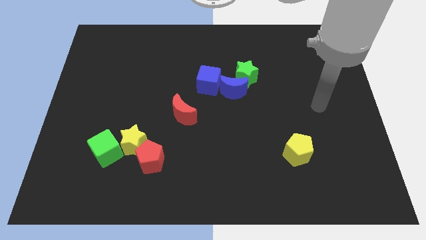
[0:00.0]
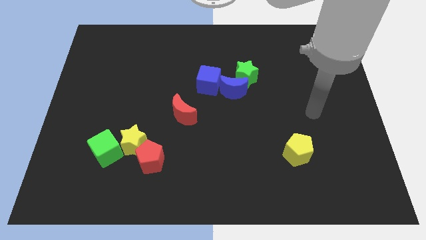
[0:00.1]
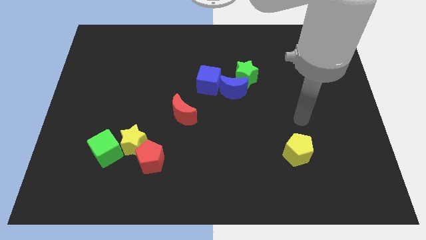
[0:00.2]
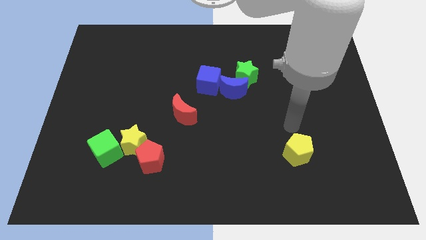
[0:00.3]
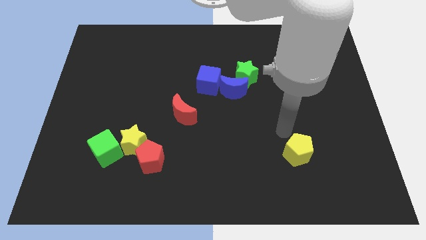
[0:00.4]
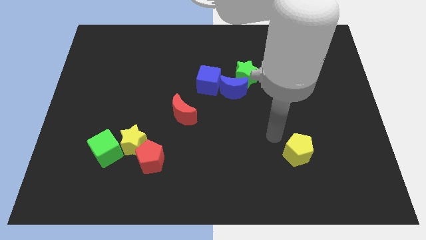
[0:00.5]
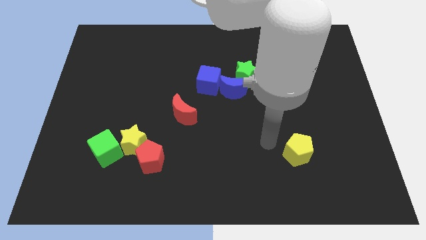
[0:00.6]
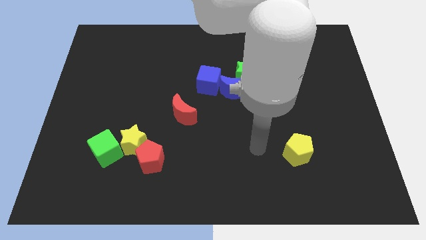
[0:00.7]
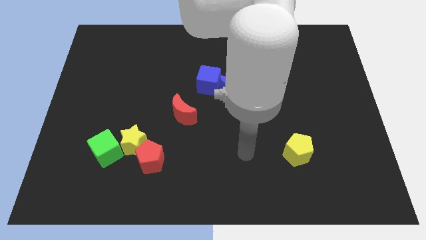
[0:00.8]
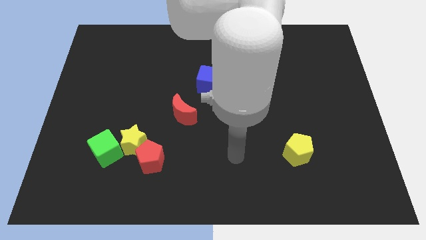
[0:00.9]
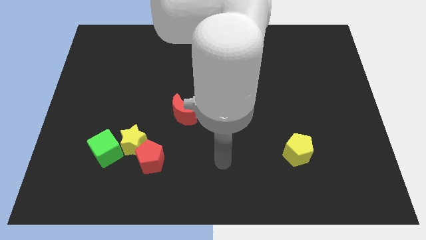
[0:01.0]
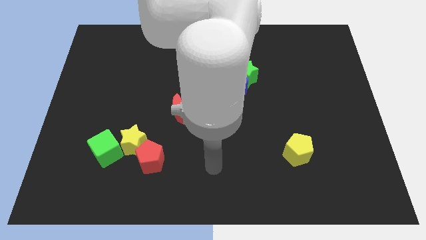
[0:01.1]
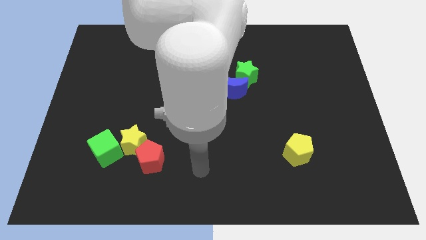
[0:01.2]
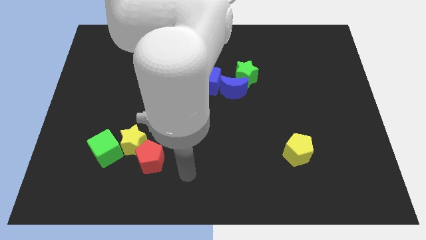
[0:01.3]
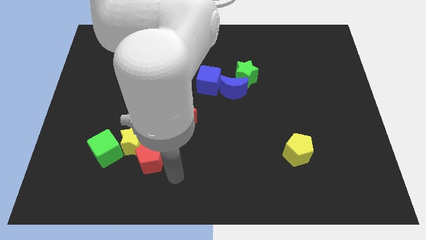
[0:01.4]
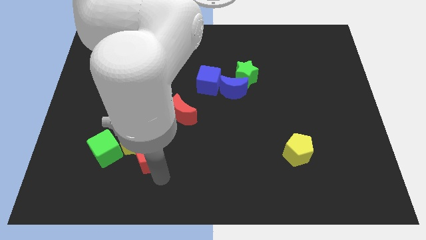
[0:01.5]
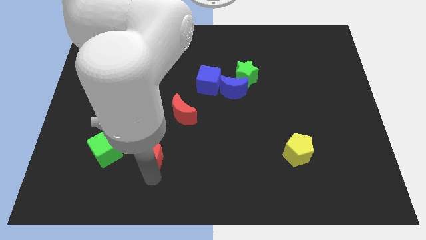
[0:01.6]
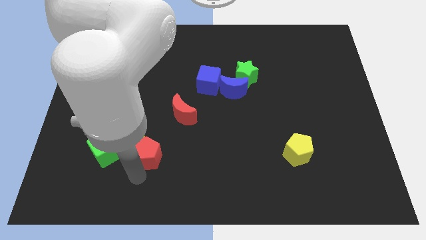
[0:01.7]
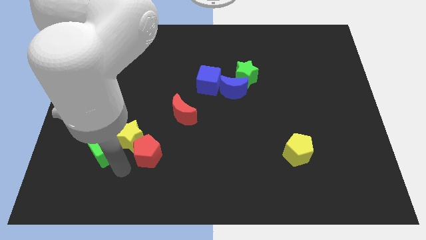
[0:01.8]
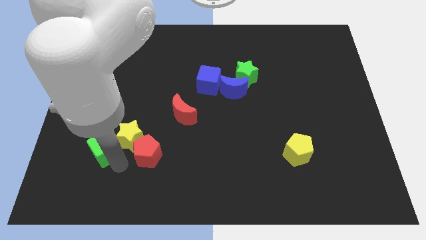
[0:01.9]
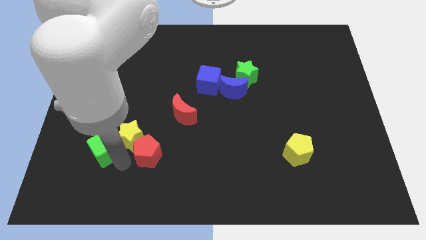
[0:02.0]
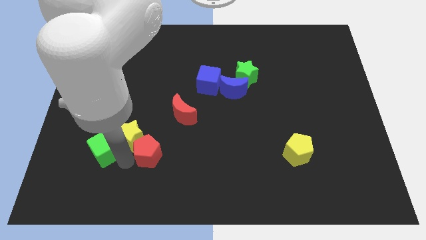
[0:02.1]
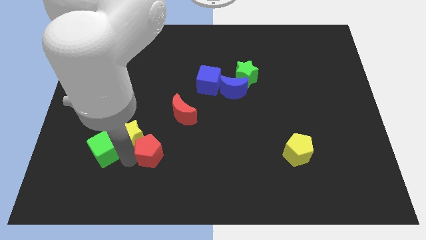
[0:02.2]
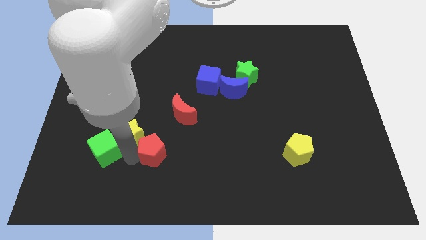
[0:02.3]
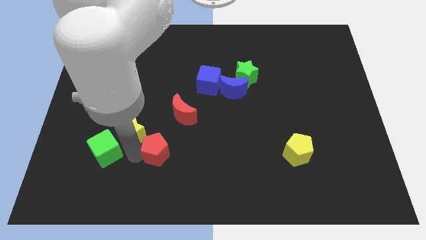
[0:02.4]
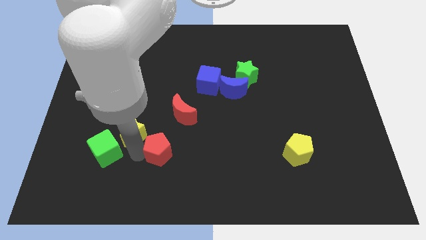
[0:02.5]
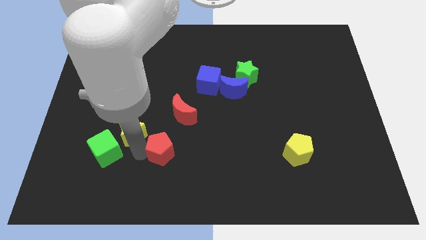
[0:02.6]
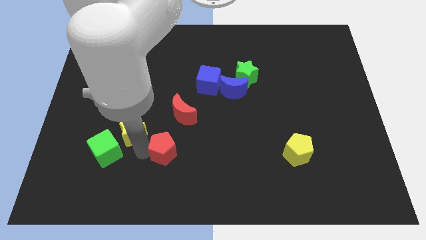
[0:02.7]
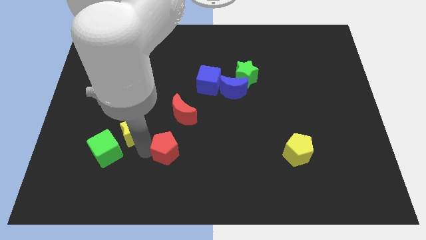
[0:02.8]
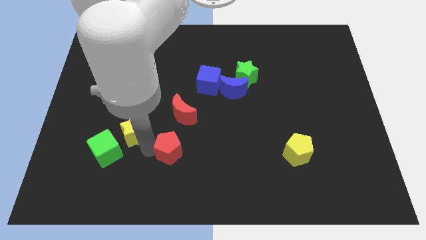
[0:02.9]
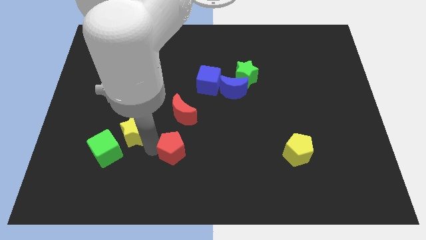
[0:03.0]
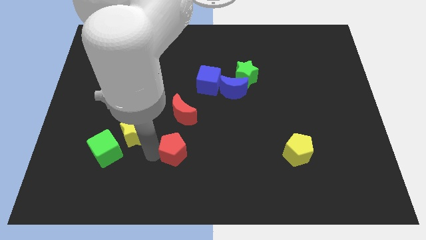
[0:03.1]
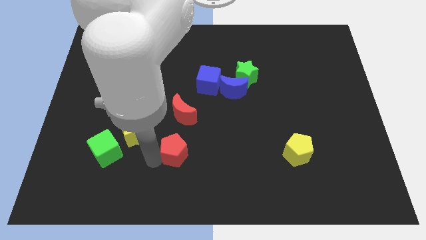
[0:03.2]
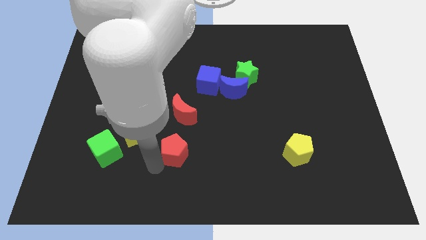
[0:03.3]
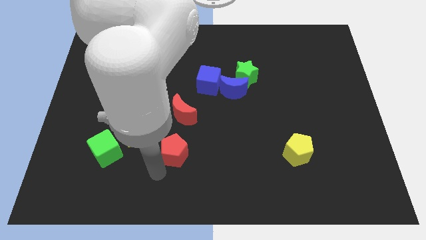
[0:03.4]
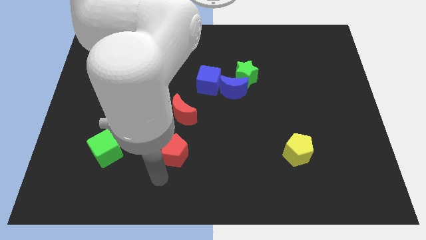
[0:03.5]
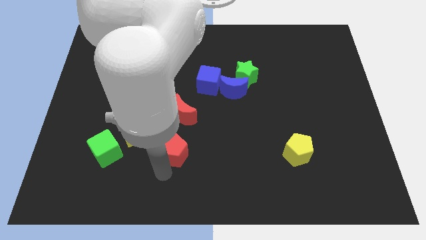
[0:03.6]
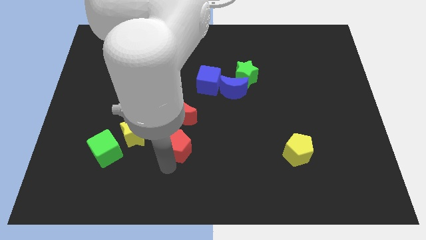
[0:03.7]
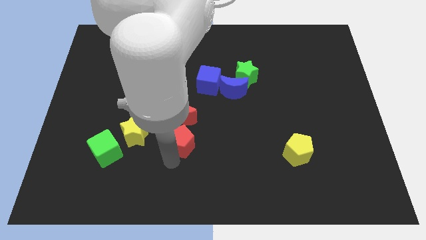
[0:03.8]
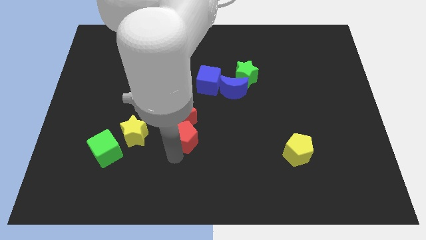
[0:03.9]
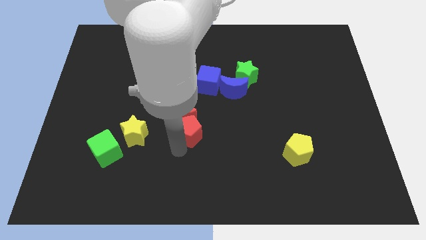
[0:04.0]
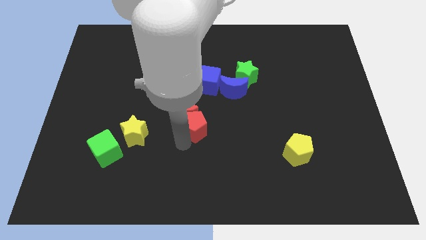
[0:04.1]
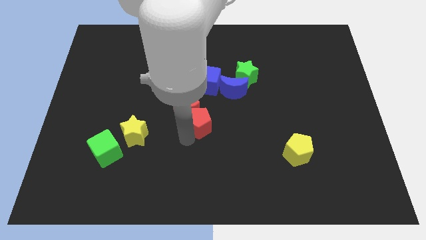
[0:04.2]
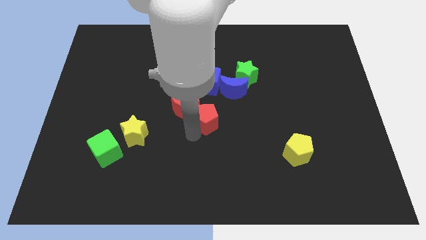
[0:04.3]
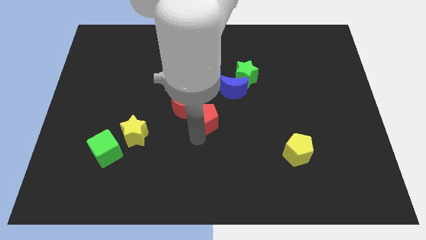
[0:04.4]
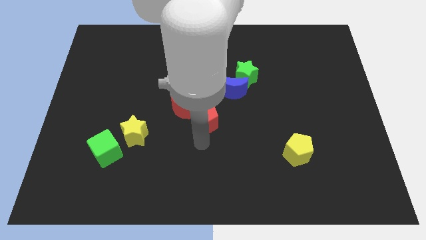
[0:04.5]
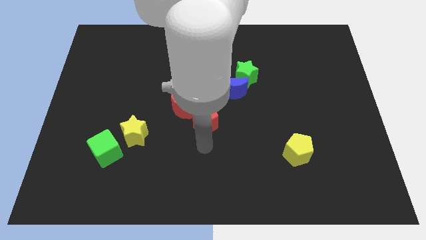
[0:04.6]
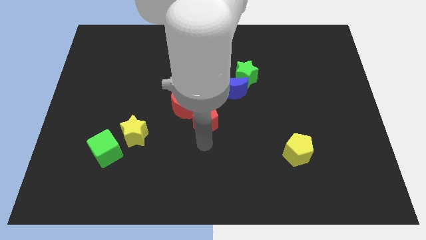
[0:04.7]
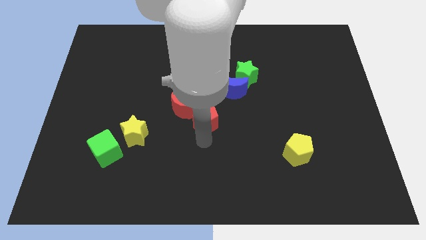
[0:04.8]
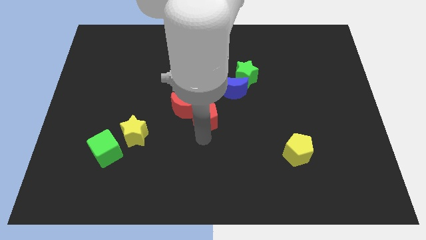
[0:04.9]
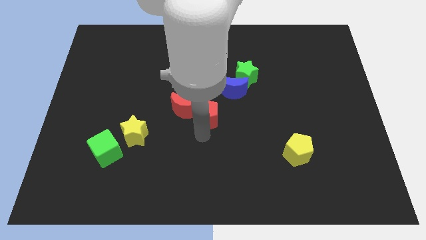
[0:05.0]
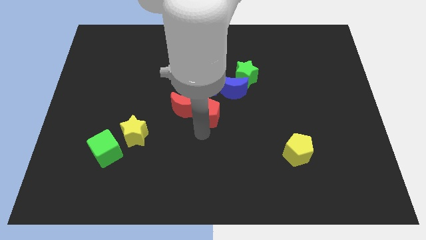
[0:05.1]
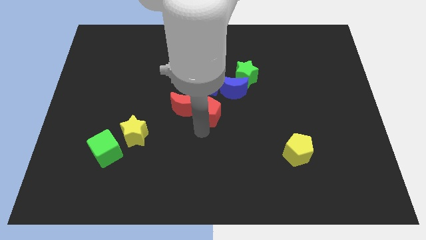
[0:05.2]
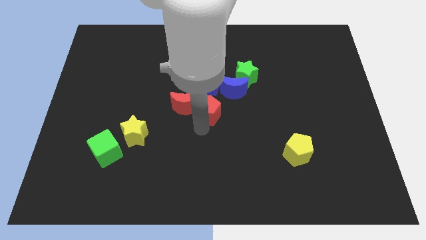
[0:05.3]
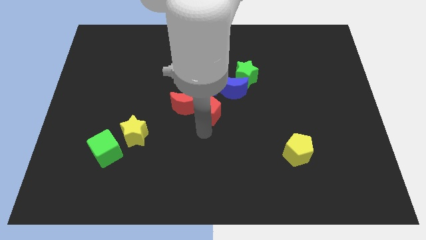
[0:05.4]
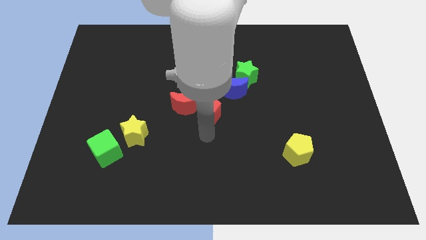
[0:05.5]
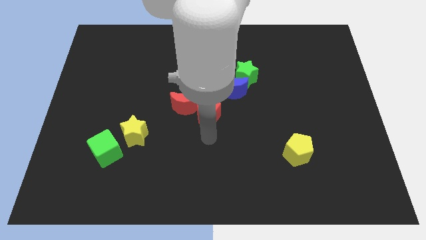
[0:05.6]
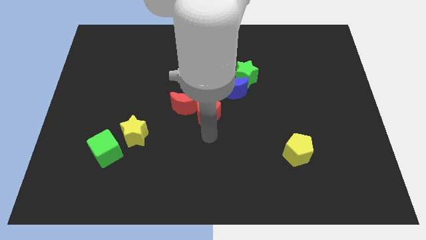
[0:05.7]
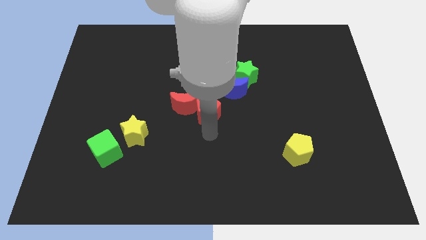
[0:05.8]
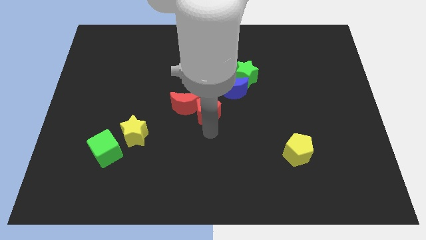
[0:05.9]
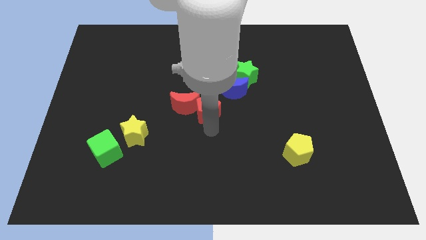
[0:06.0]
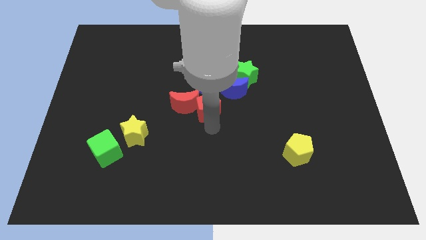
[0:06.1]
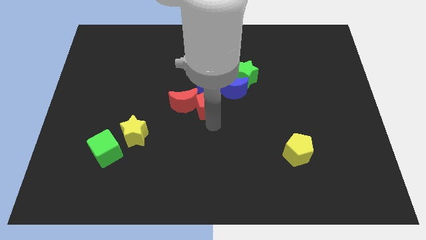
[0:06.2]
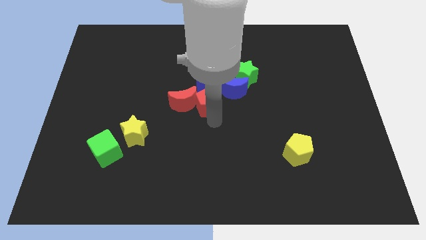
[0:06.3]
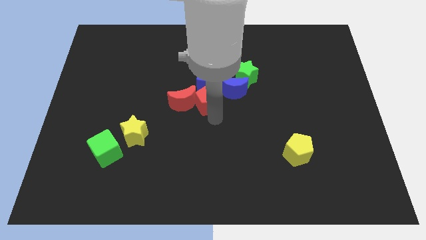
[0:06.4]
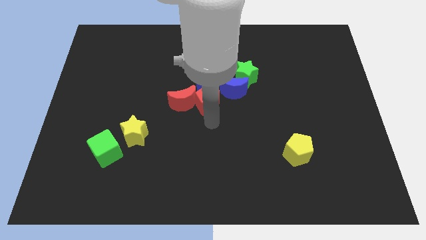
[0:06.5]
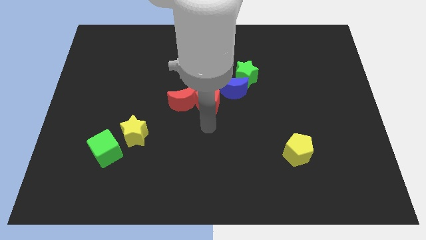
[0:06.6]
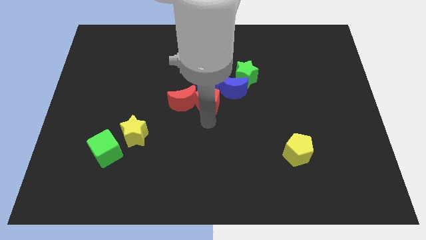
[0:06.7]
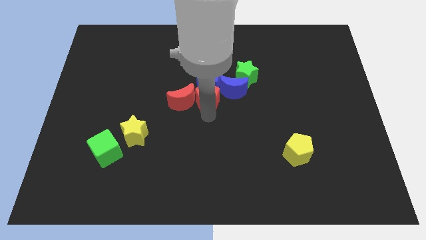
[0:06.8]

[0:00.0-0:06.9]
push the red pentagon close to the blue cube
